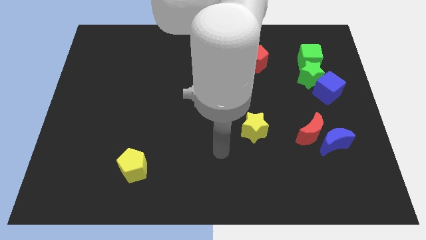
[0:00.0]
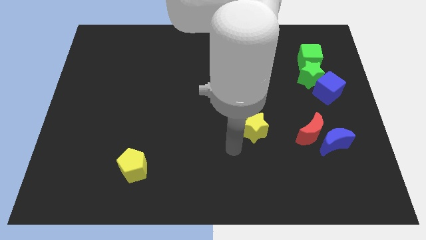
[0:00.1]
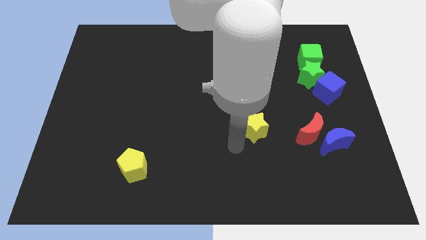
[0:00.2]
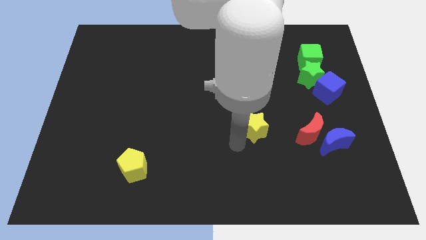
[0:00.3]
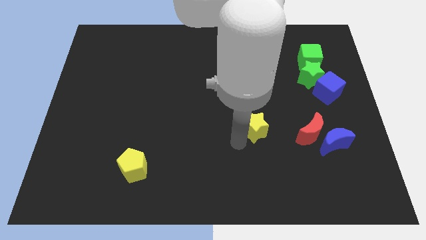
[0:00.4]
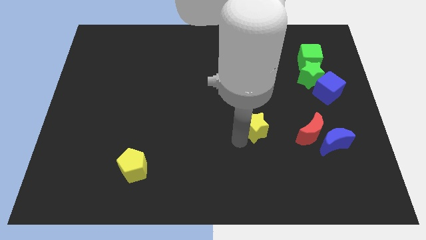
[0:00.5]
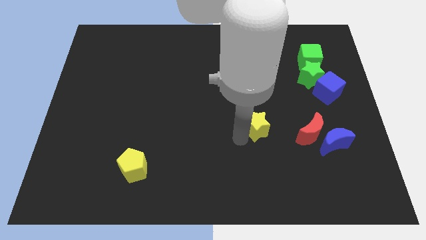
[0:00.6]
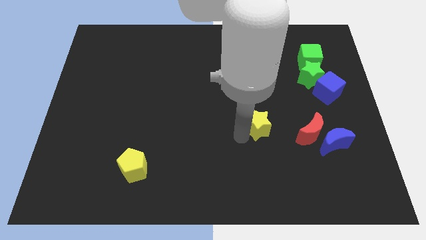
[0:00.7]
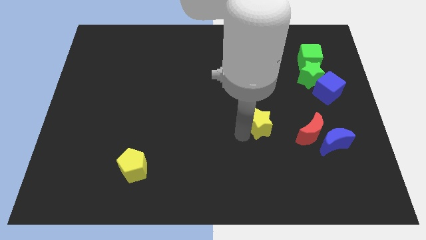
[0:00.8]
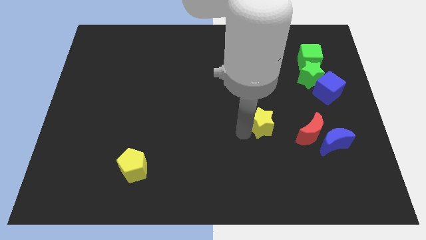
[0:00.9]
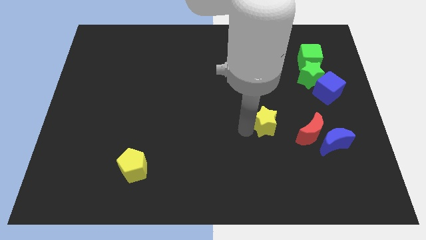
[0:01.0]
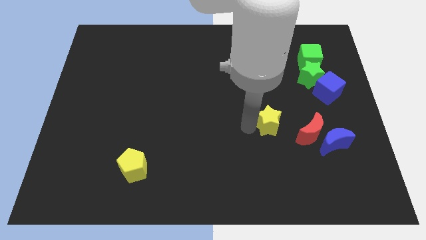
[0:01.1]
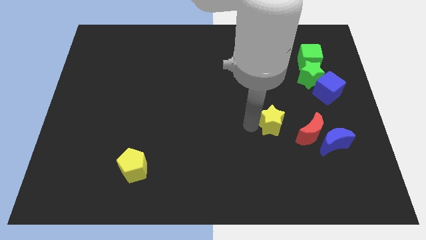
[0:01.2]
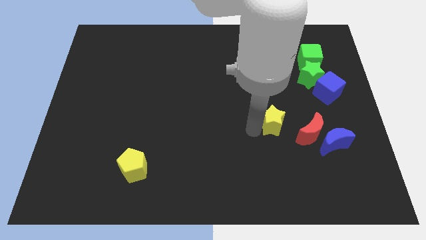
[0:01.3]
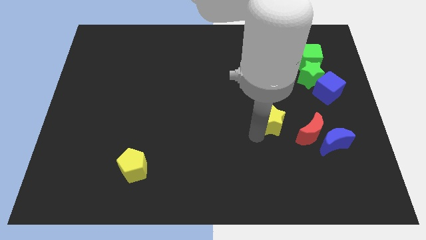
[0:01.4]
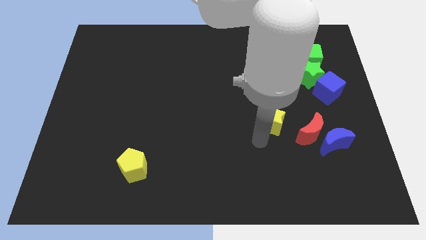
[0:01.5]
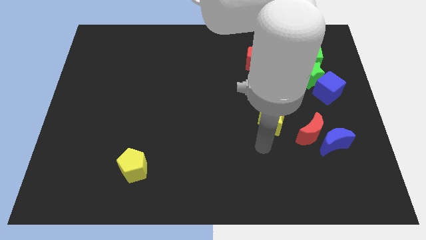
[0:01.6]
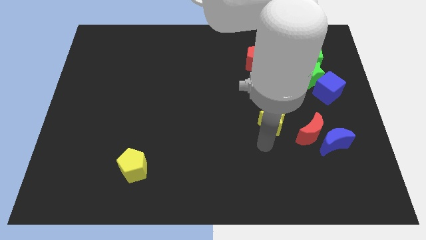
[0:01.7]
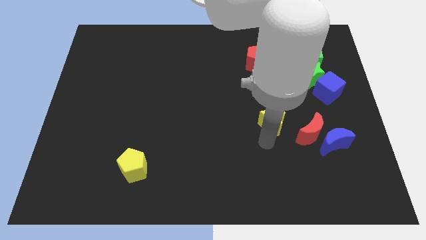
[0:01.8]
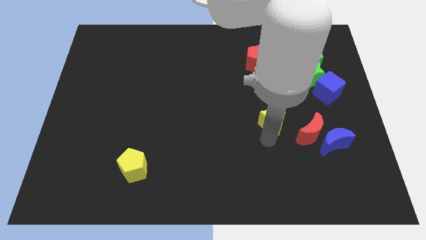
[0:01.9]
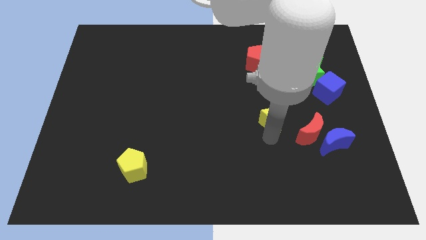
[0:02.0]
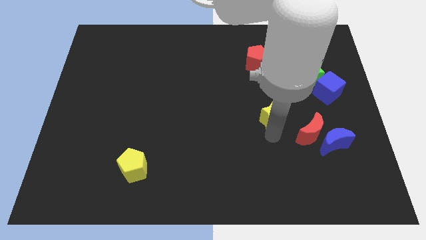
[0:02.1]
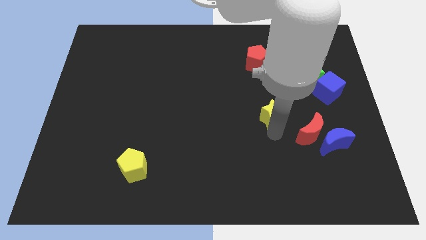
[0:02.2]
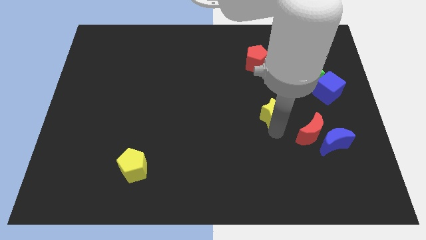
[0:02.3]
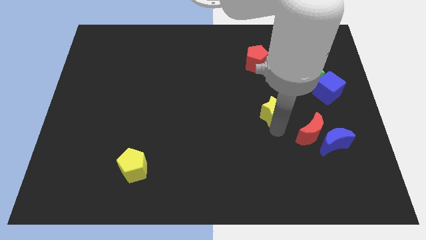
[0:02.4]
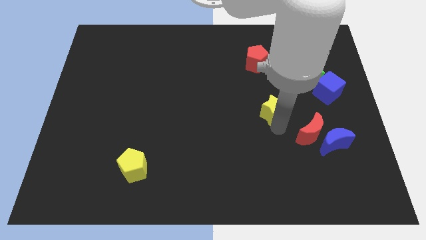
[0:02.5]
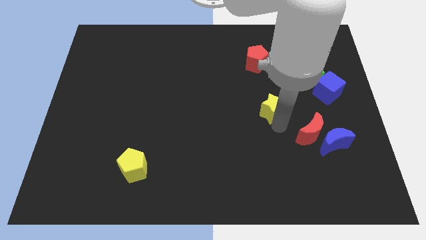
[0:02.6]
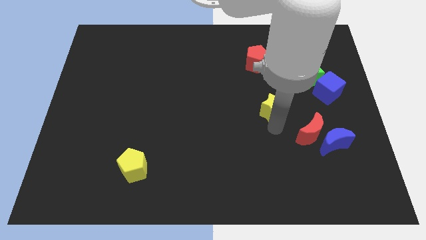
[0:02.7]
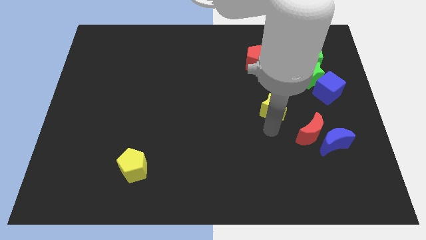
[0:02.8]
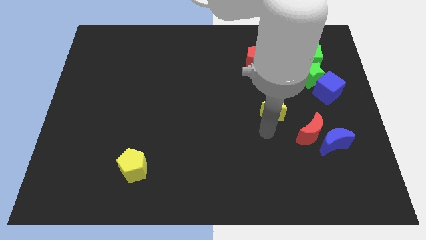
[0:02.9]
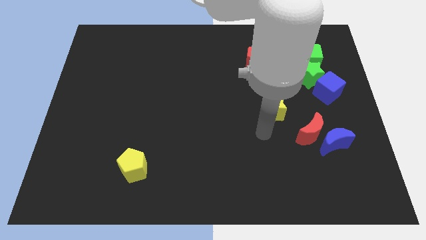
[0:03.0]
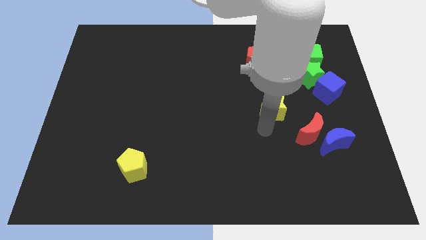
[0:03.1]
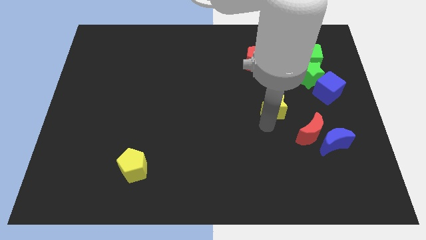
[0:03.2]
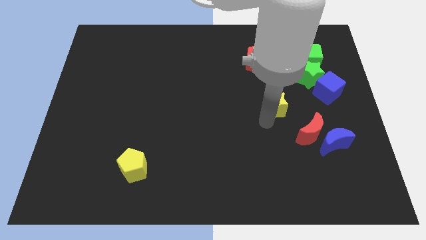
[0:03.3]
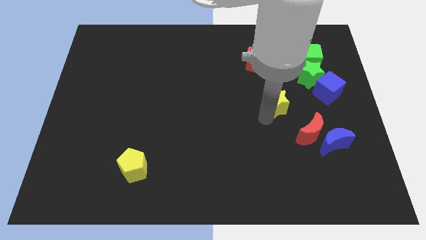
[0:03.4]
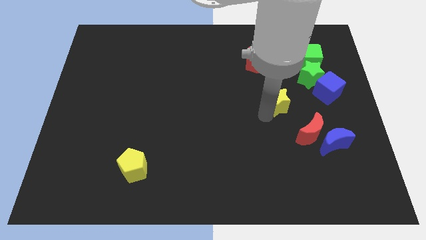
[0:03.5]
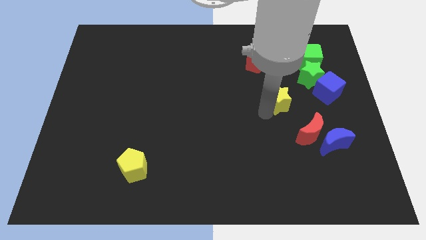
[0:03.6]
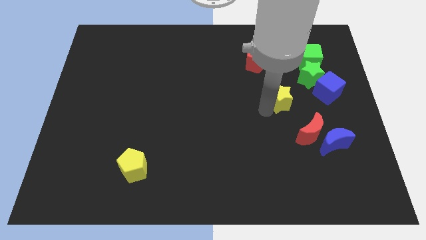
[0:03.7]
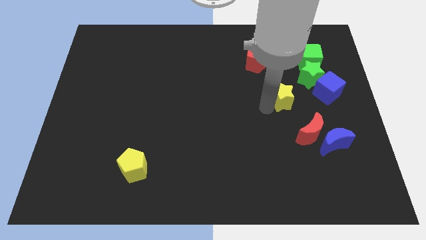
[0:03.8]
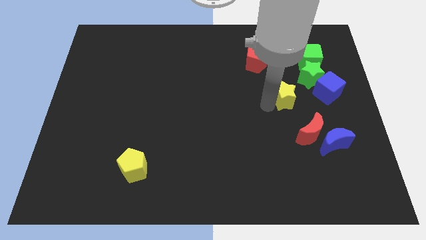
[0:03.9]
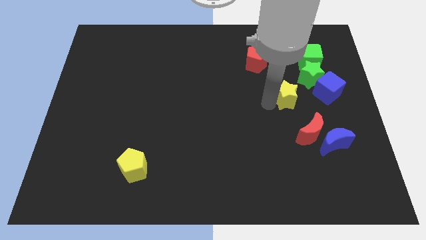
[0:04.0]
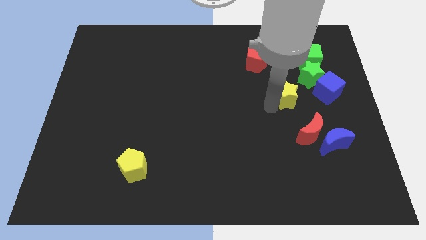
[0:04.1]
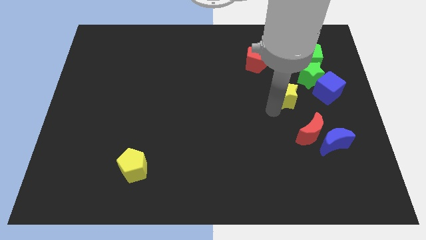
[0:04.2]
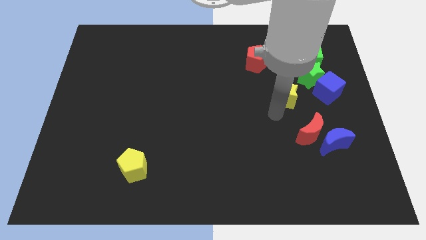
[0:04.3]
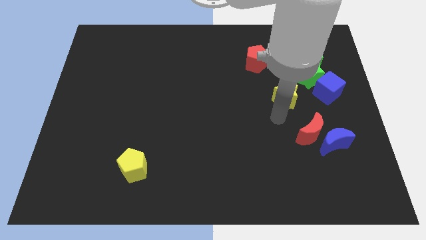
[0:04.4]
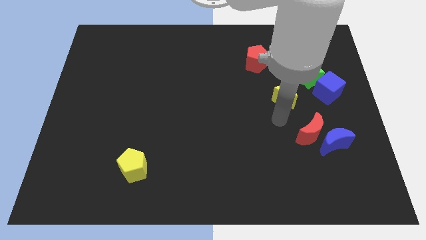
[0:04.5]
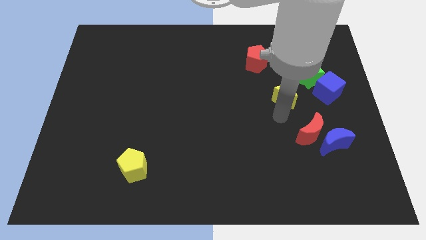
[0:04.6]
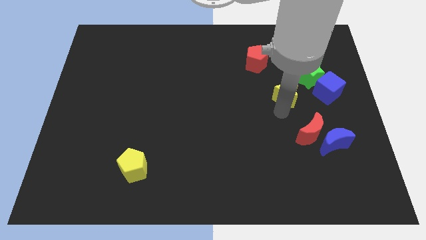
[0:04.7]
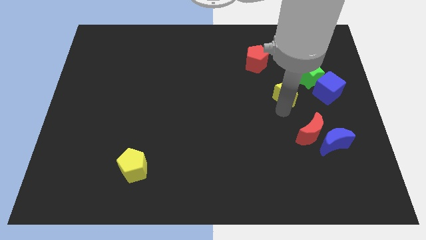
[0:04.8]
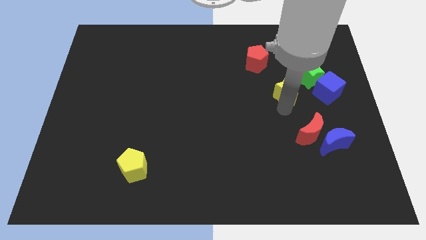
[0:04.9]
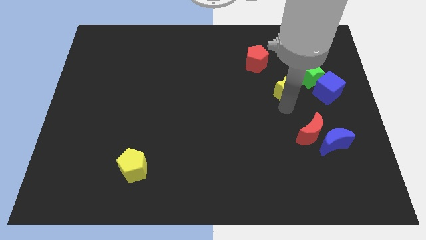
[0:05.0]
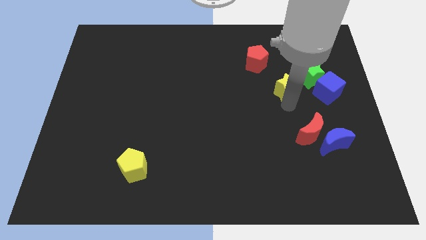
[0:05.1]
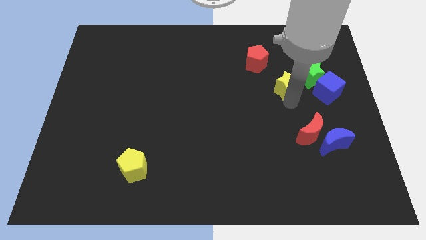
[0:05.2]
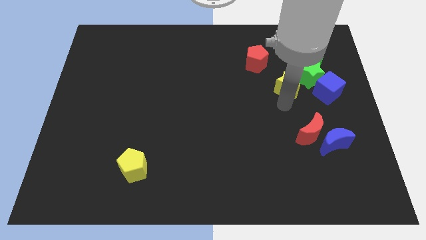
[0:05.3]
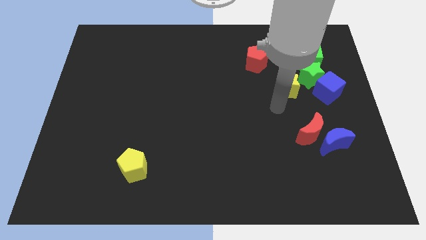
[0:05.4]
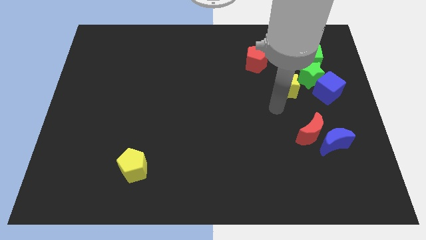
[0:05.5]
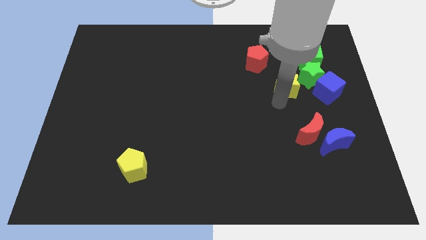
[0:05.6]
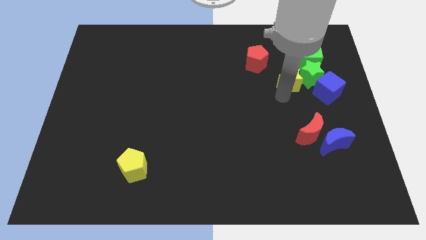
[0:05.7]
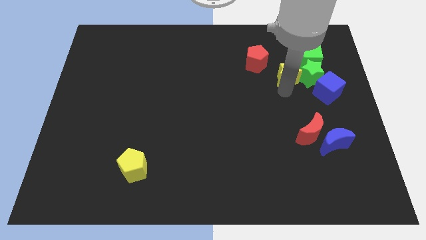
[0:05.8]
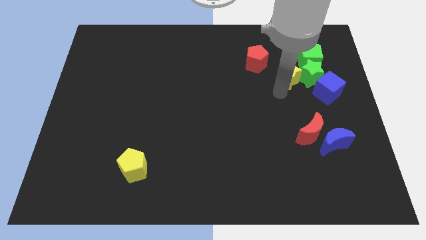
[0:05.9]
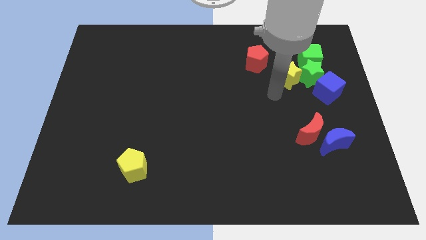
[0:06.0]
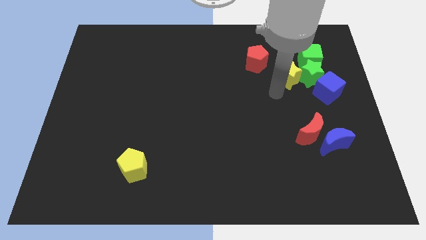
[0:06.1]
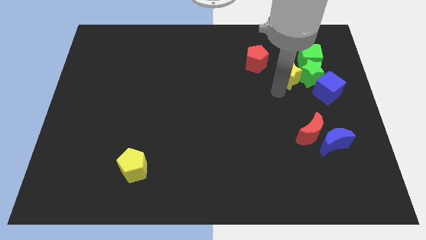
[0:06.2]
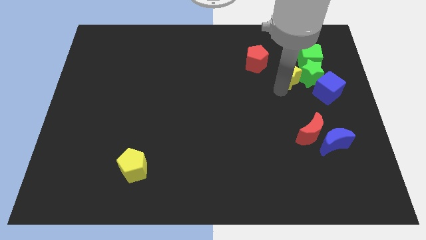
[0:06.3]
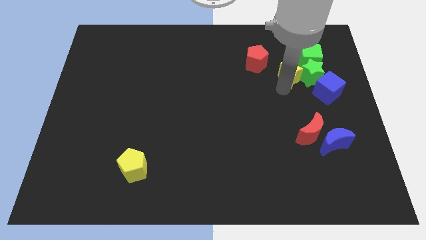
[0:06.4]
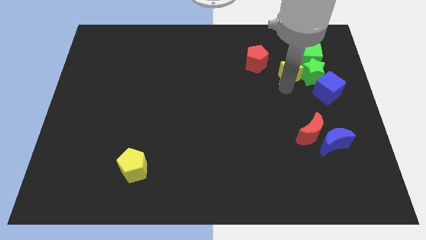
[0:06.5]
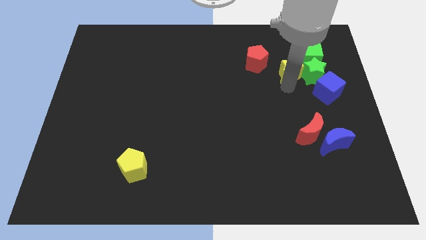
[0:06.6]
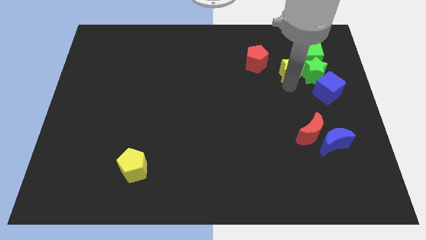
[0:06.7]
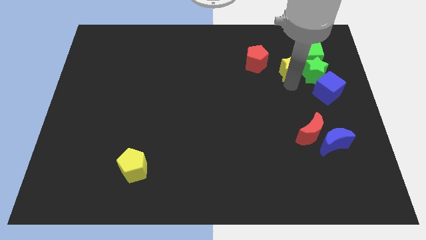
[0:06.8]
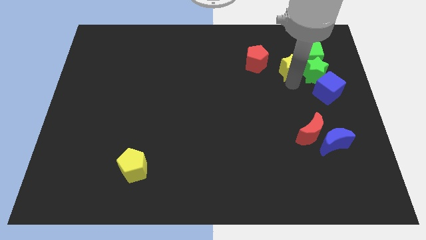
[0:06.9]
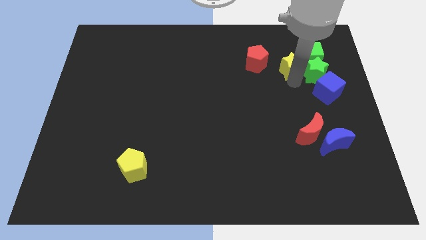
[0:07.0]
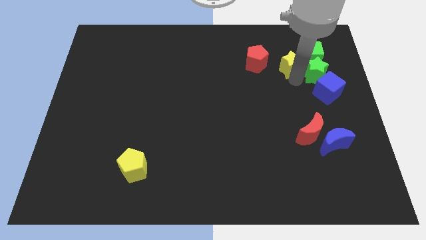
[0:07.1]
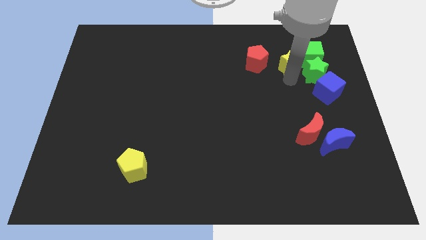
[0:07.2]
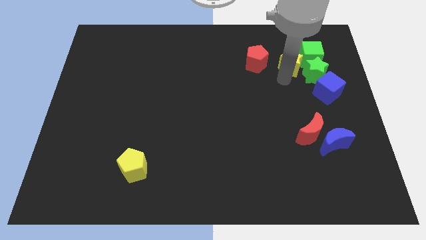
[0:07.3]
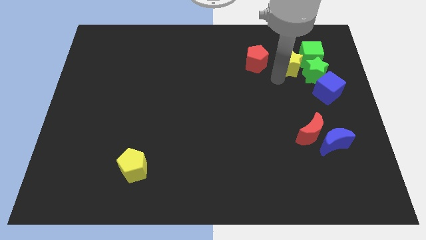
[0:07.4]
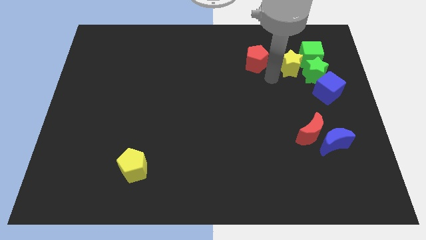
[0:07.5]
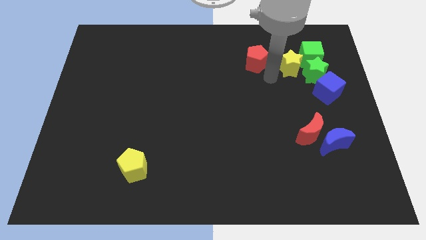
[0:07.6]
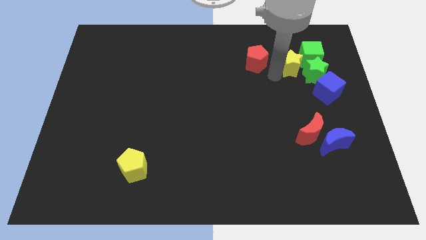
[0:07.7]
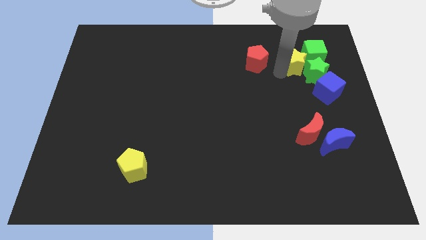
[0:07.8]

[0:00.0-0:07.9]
slide the yellow star towards the green cube
